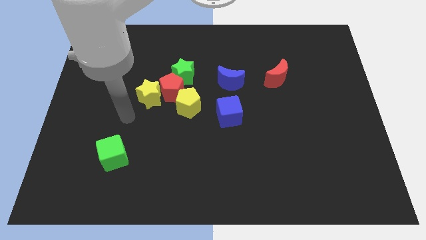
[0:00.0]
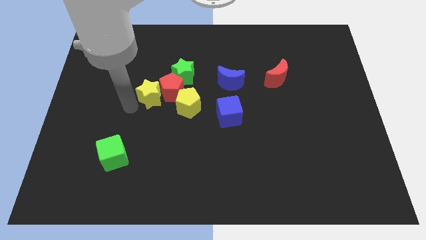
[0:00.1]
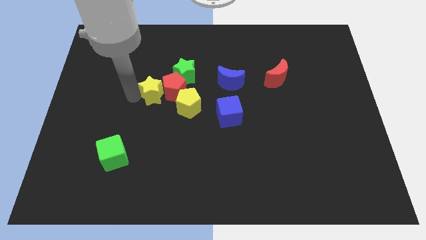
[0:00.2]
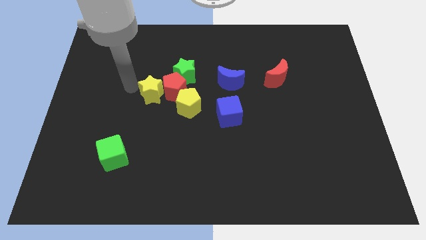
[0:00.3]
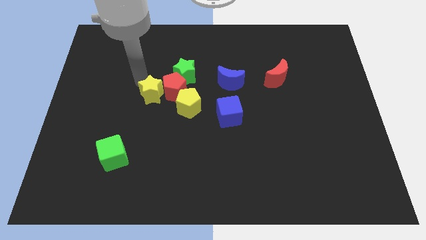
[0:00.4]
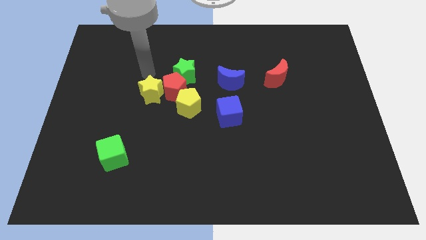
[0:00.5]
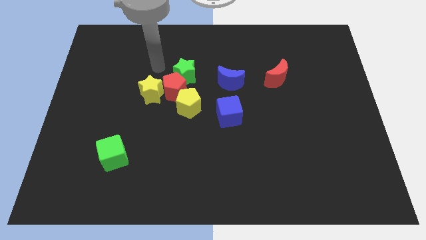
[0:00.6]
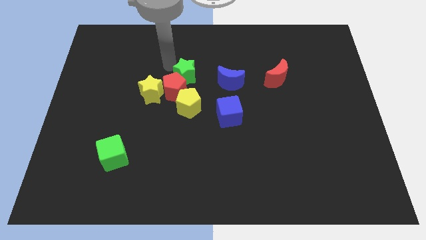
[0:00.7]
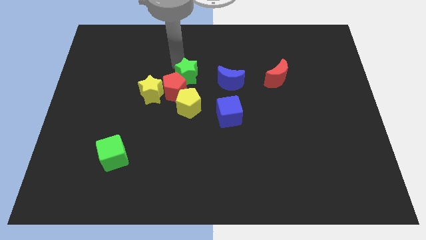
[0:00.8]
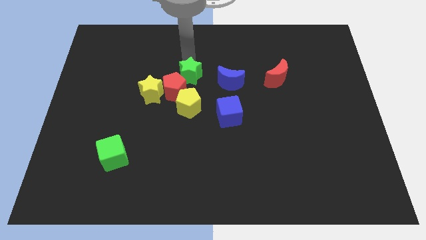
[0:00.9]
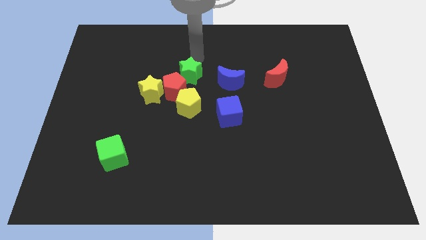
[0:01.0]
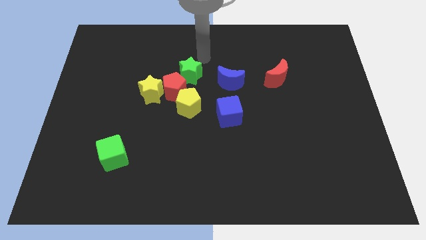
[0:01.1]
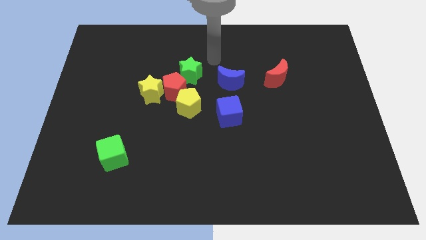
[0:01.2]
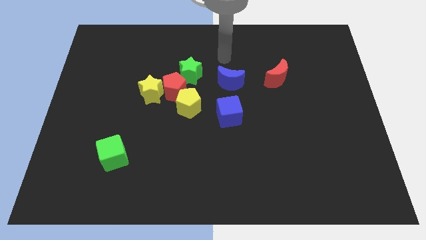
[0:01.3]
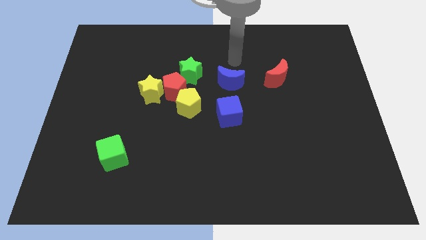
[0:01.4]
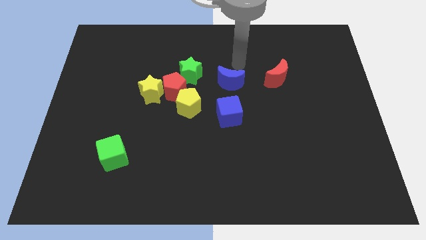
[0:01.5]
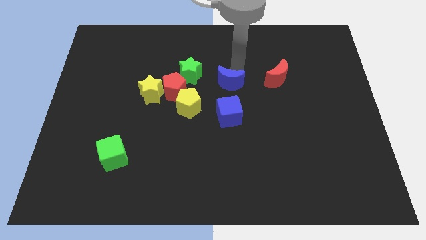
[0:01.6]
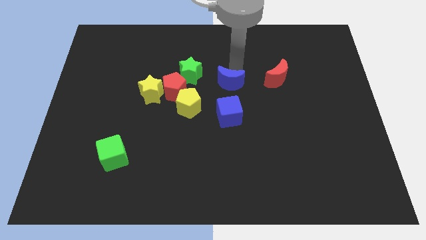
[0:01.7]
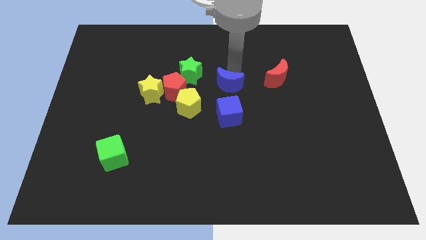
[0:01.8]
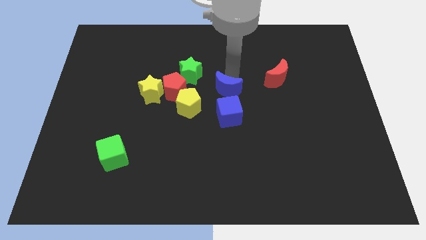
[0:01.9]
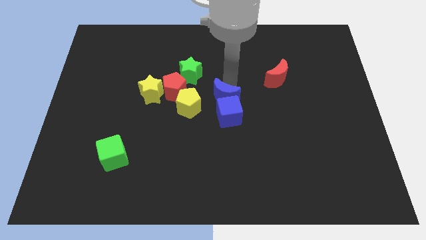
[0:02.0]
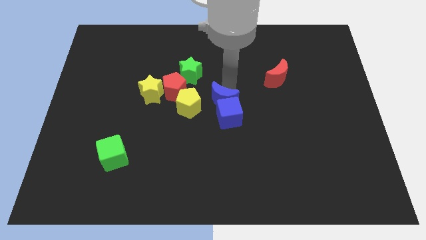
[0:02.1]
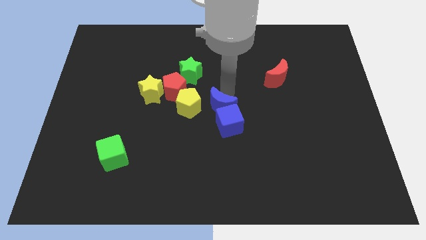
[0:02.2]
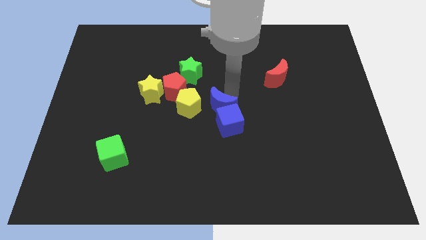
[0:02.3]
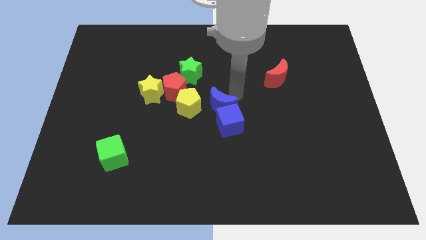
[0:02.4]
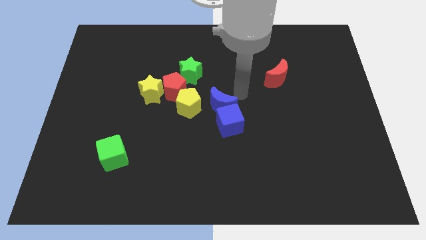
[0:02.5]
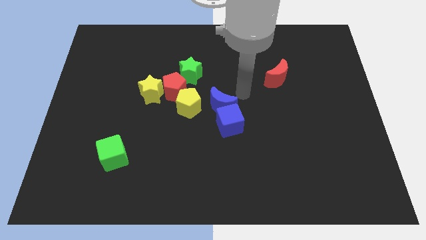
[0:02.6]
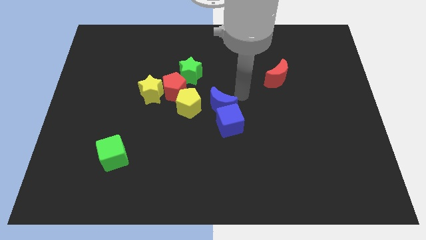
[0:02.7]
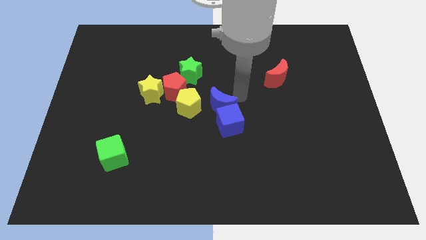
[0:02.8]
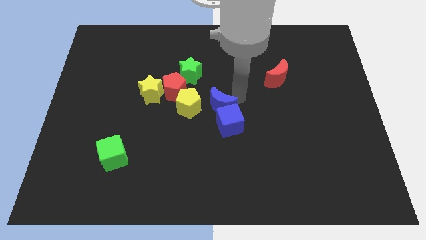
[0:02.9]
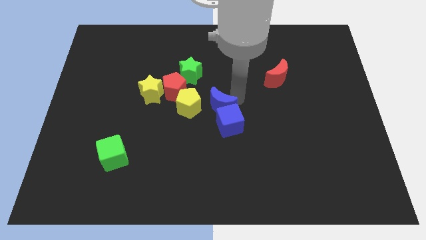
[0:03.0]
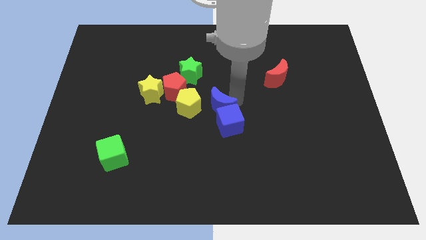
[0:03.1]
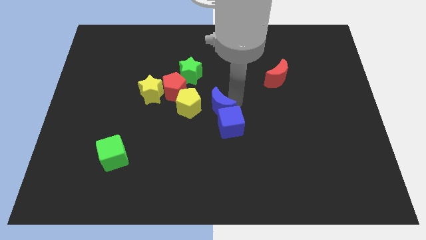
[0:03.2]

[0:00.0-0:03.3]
slightly move the blue moon diagonally down and left

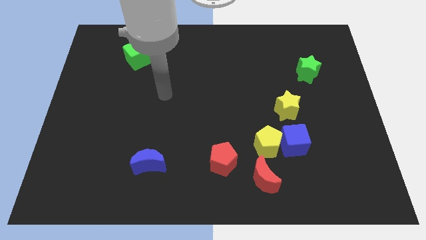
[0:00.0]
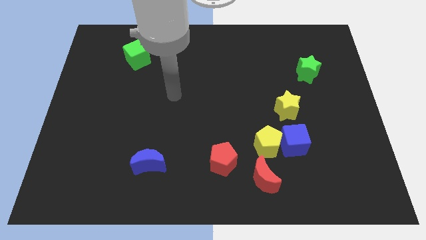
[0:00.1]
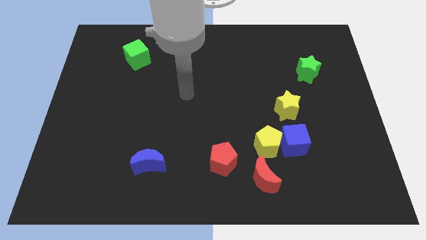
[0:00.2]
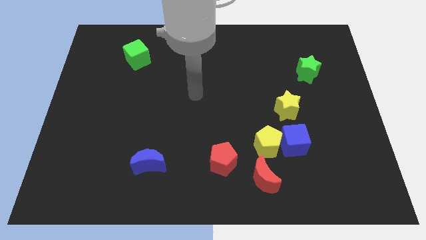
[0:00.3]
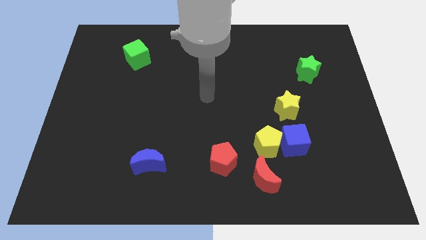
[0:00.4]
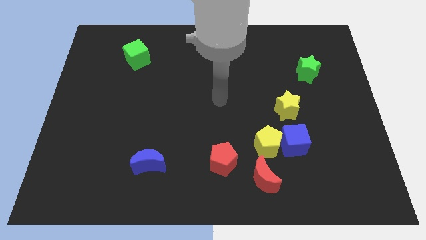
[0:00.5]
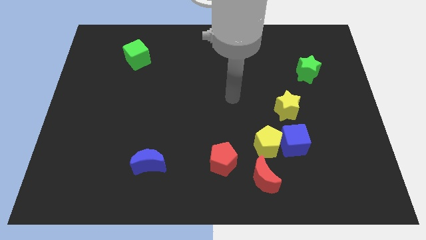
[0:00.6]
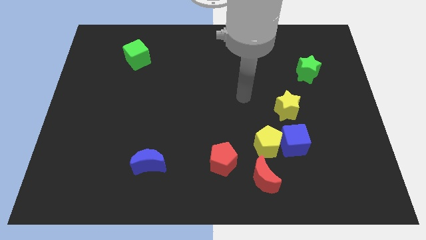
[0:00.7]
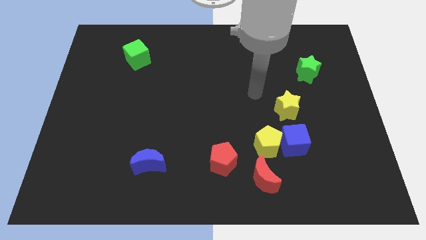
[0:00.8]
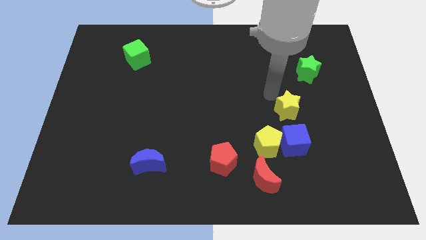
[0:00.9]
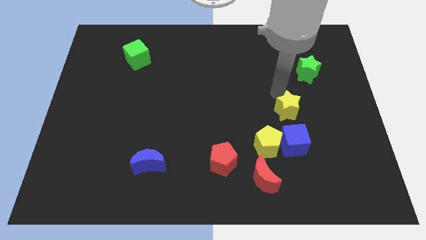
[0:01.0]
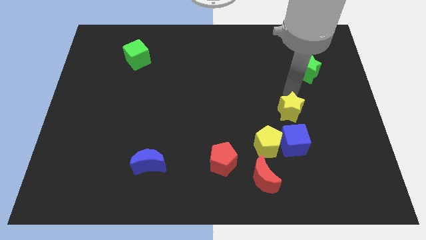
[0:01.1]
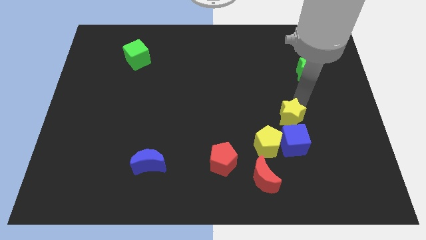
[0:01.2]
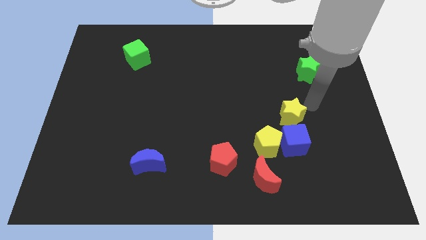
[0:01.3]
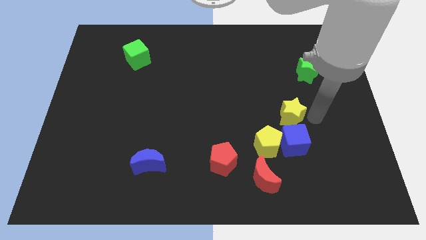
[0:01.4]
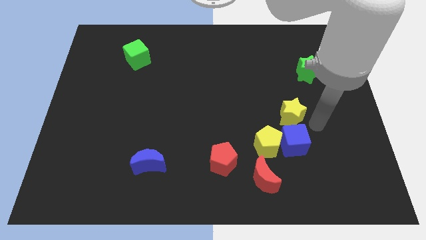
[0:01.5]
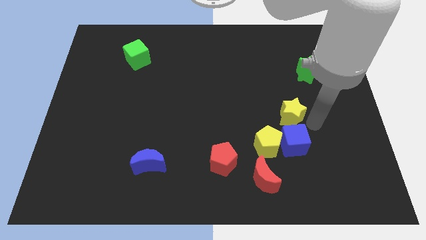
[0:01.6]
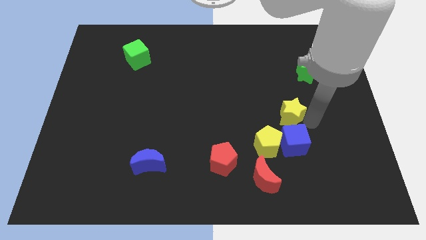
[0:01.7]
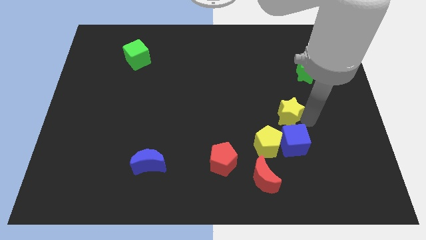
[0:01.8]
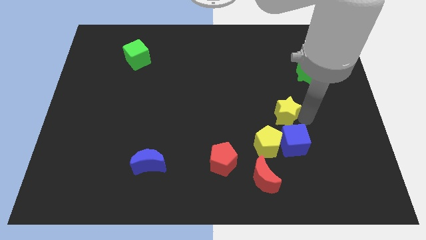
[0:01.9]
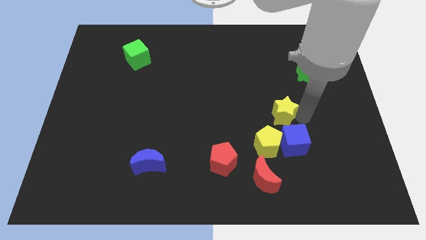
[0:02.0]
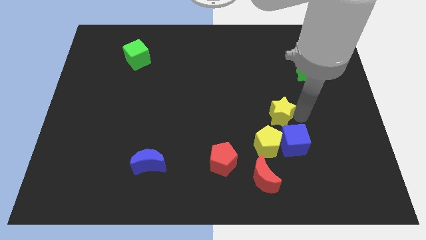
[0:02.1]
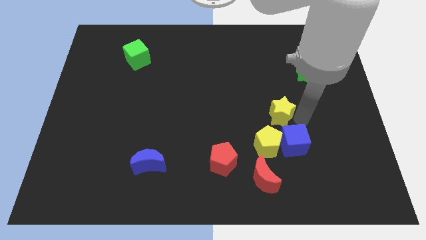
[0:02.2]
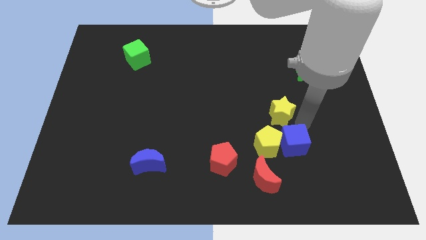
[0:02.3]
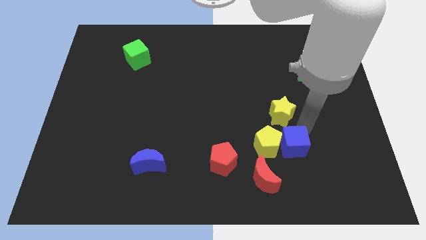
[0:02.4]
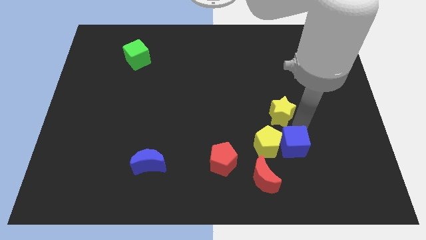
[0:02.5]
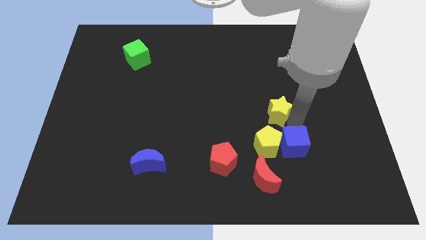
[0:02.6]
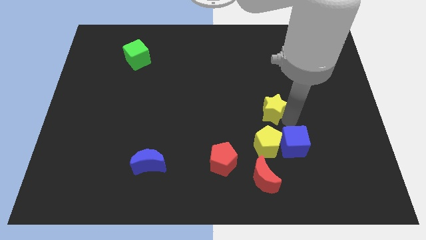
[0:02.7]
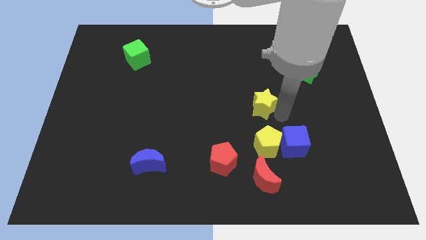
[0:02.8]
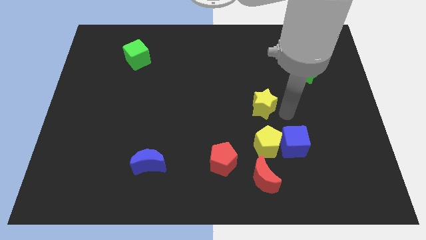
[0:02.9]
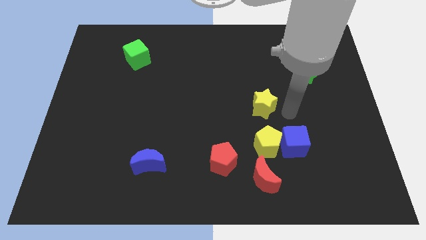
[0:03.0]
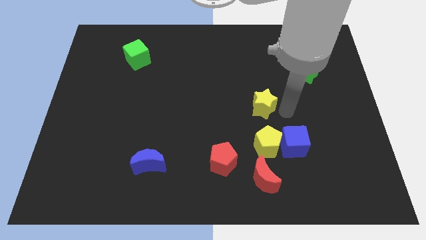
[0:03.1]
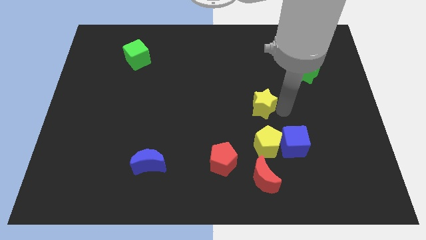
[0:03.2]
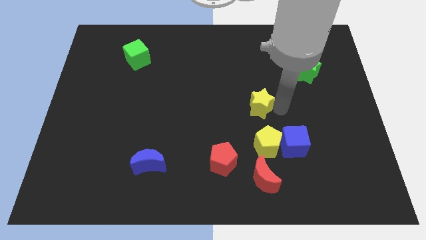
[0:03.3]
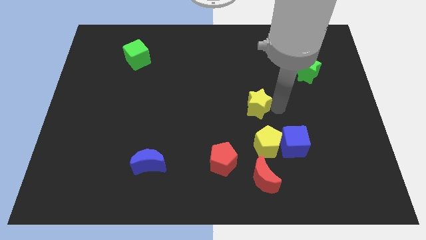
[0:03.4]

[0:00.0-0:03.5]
move the yellow star to the left a little

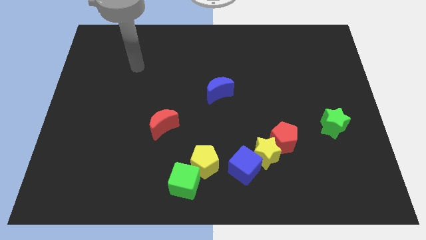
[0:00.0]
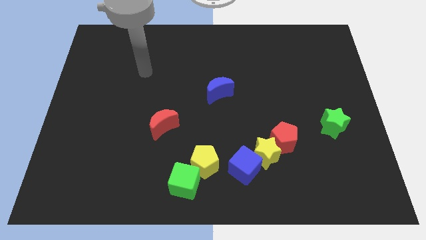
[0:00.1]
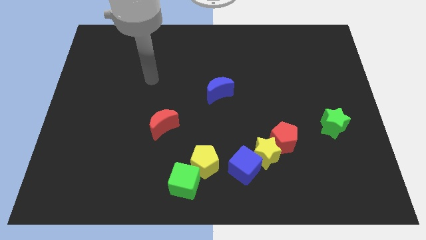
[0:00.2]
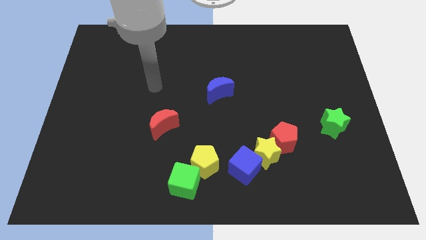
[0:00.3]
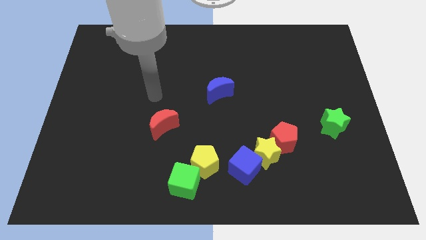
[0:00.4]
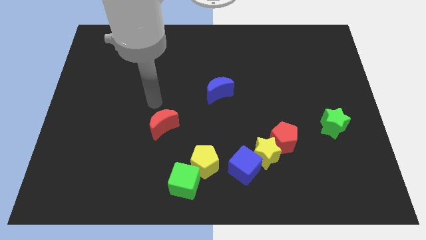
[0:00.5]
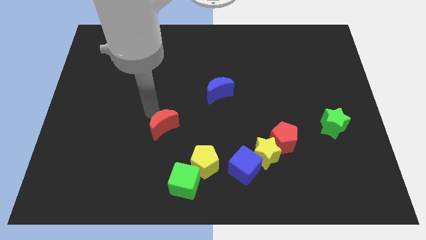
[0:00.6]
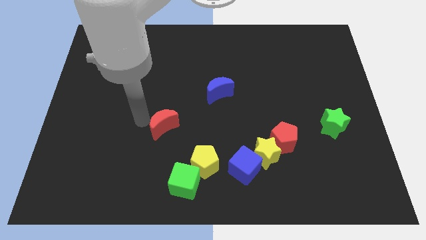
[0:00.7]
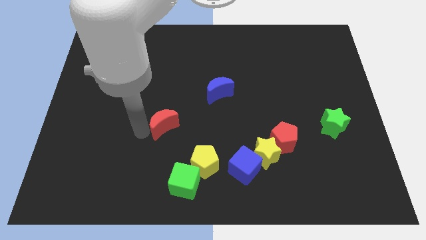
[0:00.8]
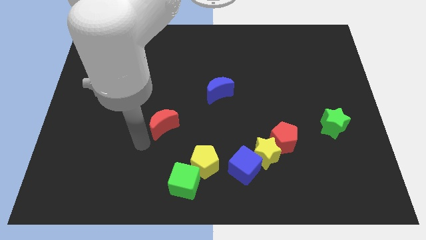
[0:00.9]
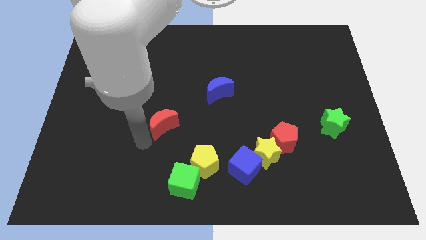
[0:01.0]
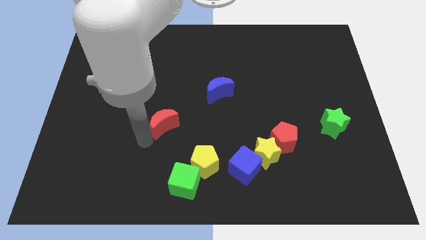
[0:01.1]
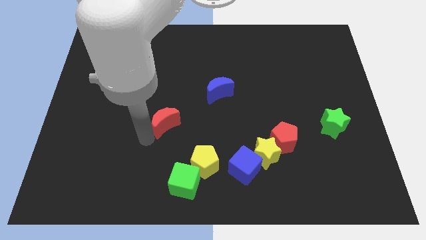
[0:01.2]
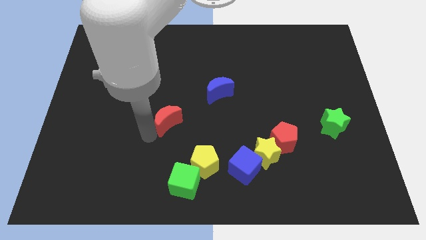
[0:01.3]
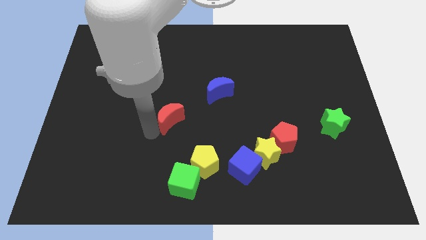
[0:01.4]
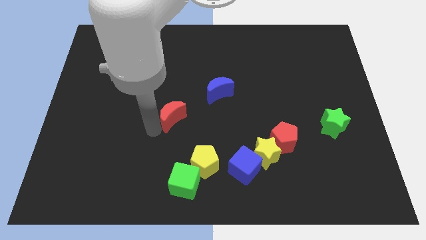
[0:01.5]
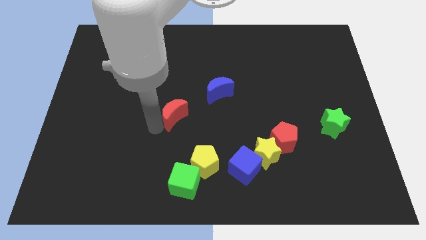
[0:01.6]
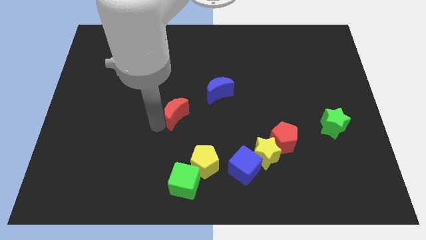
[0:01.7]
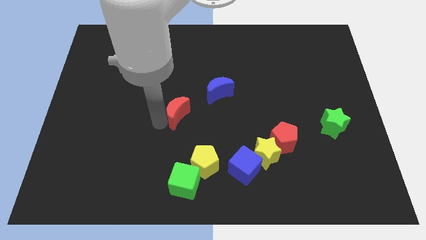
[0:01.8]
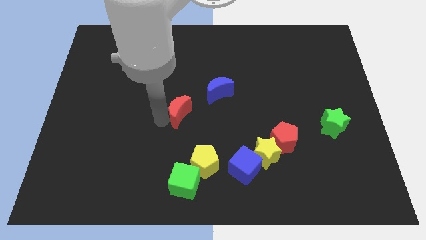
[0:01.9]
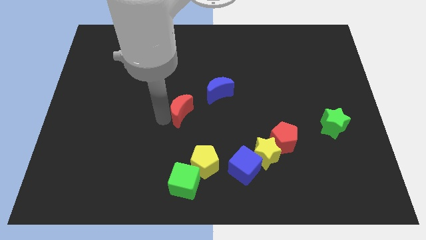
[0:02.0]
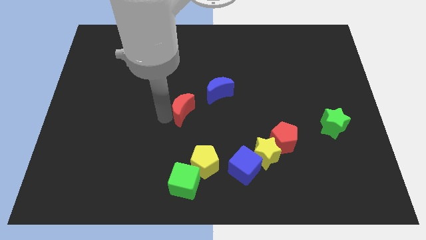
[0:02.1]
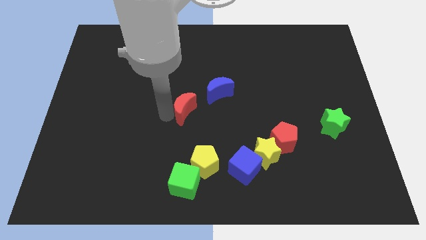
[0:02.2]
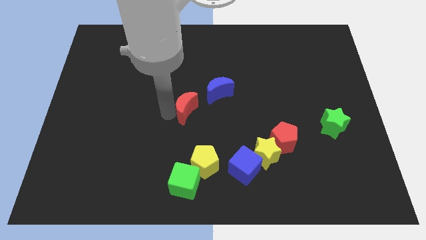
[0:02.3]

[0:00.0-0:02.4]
push the red moon somewhat diagonally up and right
